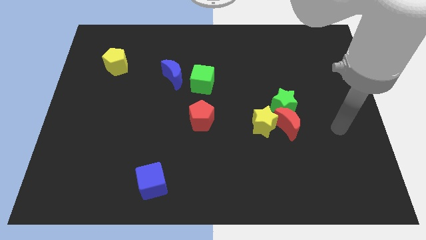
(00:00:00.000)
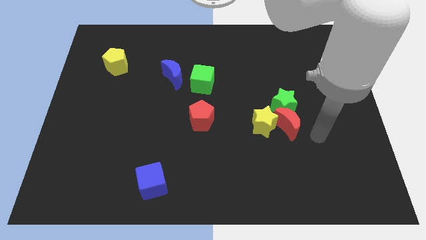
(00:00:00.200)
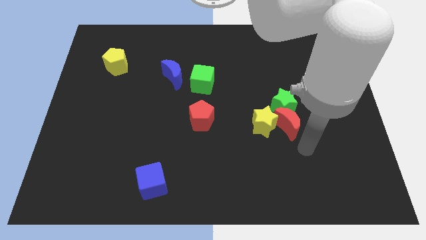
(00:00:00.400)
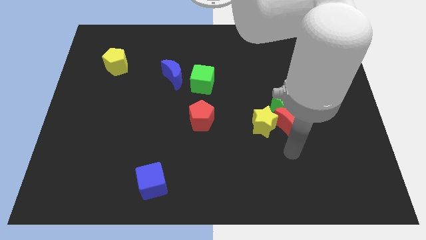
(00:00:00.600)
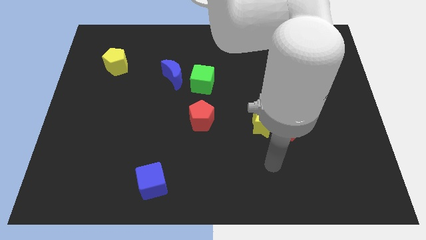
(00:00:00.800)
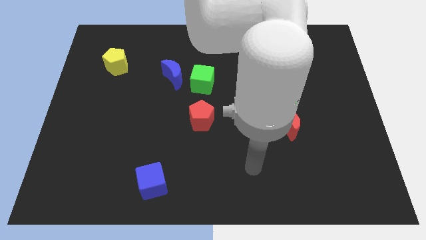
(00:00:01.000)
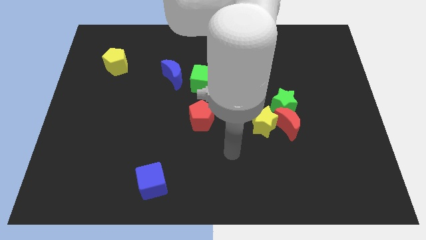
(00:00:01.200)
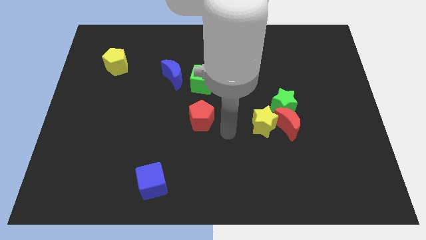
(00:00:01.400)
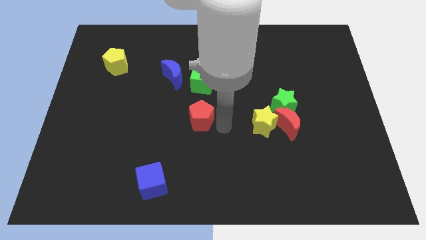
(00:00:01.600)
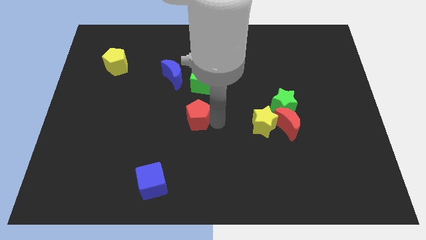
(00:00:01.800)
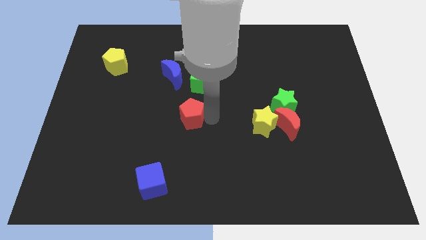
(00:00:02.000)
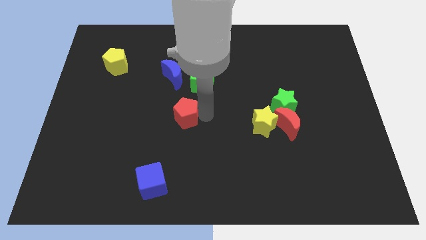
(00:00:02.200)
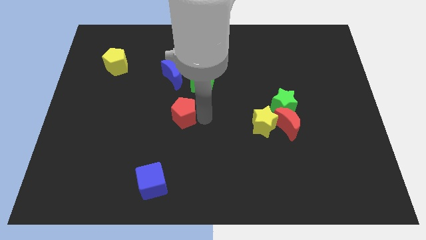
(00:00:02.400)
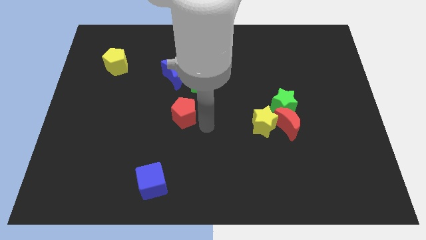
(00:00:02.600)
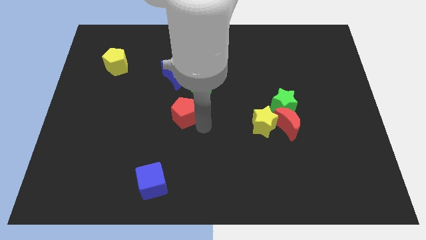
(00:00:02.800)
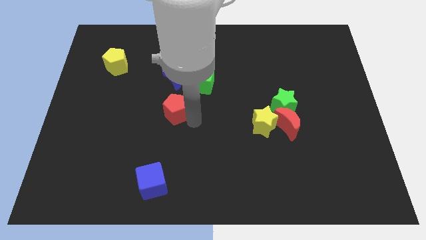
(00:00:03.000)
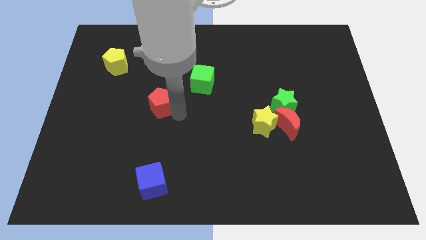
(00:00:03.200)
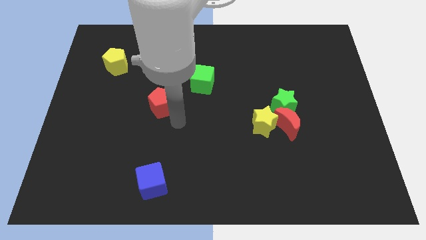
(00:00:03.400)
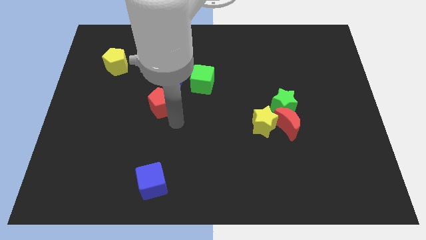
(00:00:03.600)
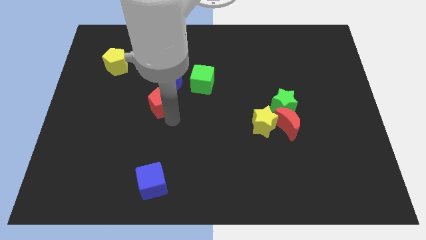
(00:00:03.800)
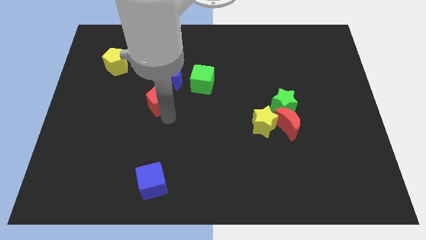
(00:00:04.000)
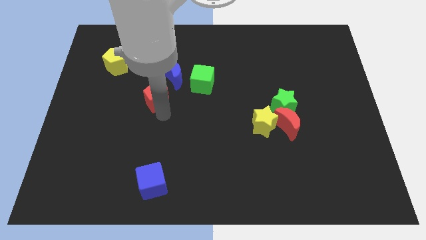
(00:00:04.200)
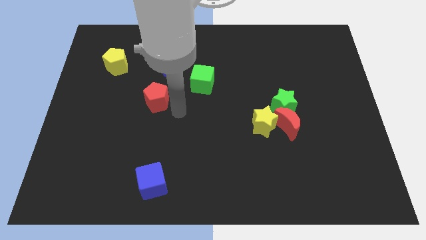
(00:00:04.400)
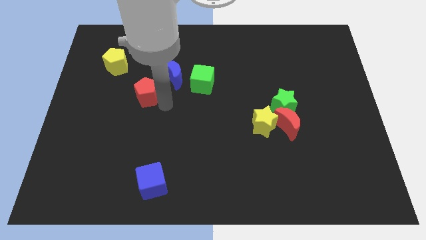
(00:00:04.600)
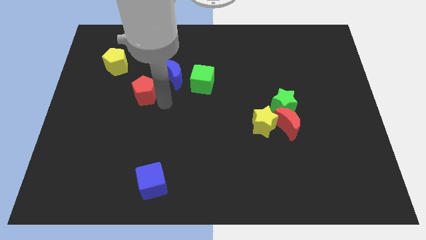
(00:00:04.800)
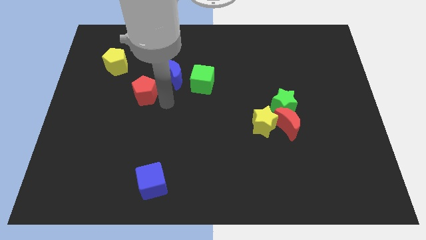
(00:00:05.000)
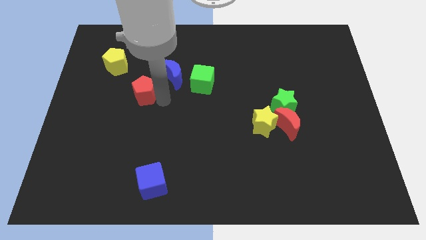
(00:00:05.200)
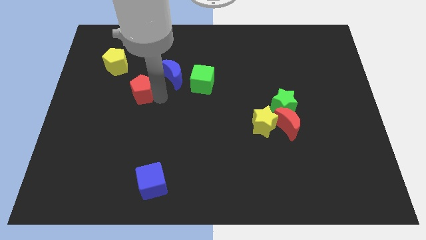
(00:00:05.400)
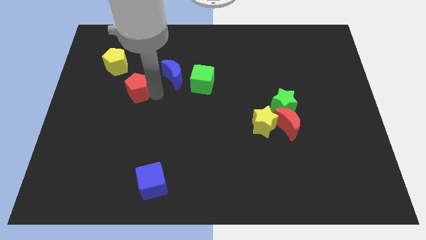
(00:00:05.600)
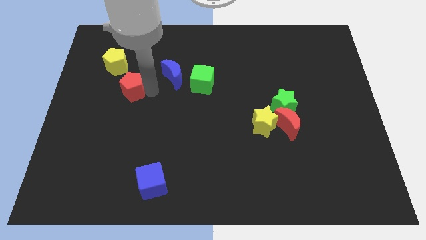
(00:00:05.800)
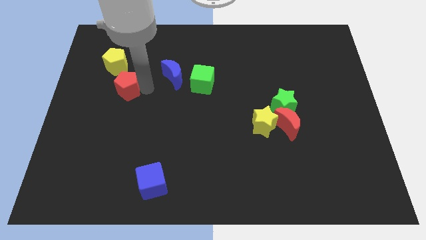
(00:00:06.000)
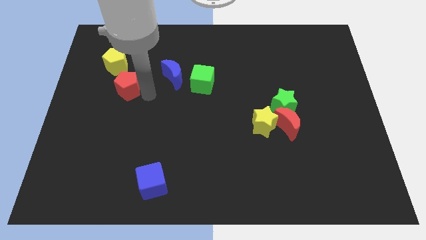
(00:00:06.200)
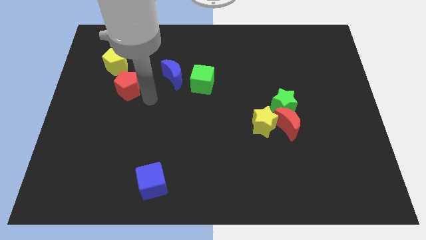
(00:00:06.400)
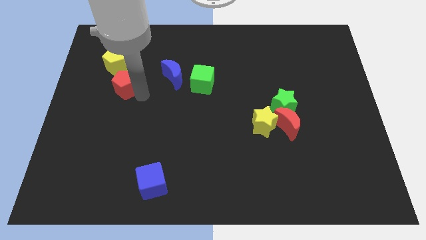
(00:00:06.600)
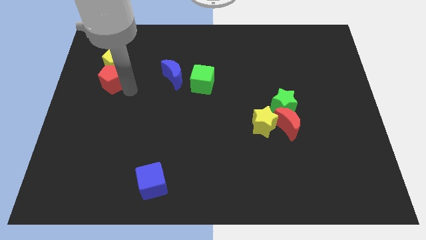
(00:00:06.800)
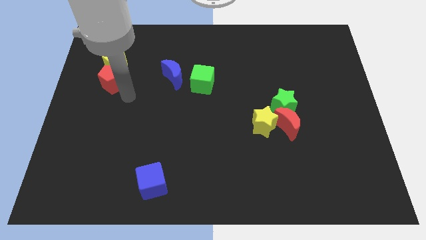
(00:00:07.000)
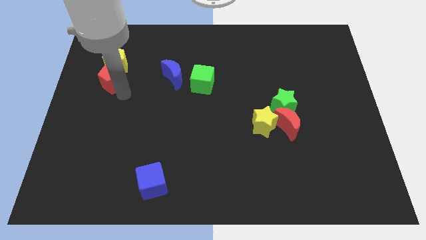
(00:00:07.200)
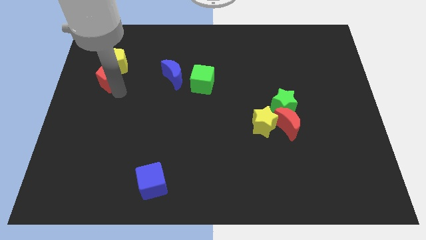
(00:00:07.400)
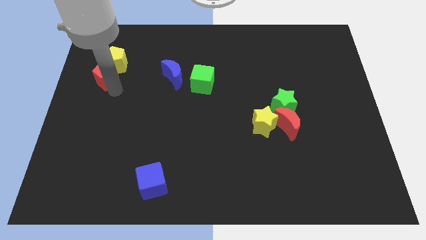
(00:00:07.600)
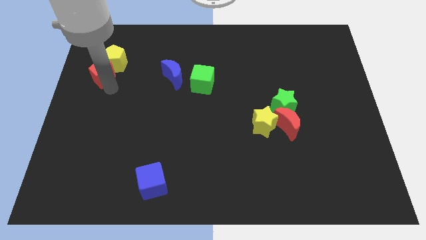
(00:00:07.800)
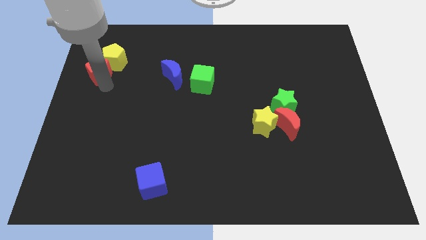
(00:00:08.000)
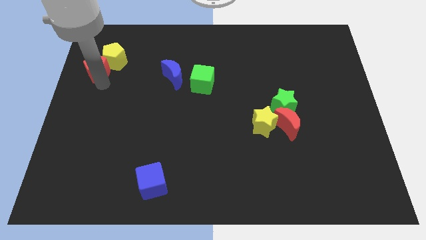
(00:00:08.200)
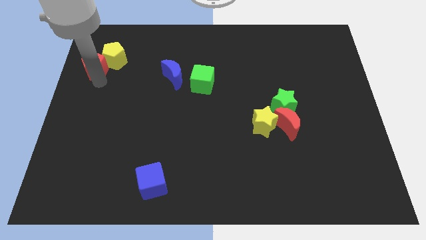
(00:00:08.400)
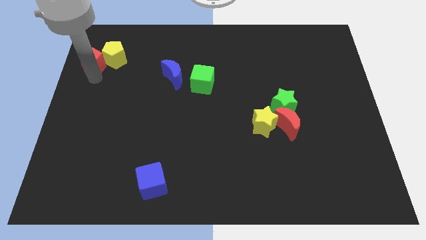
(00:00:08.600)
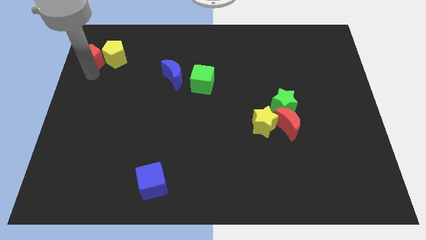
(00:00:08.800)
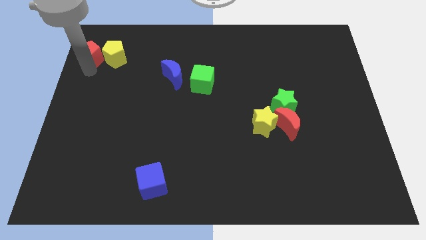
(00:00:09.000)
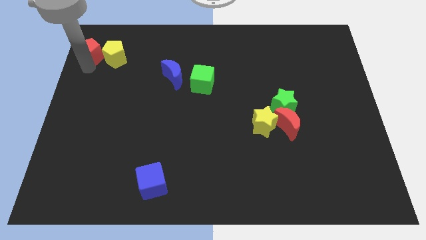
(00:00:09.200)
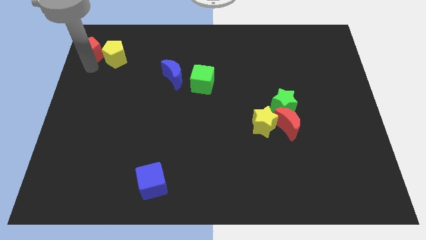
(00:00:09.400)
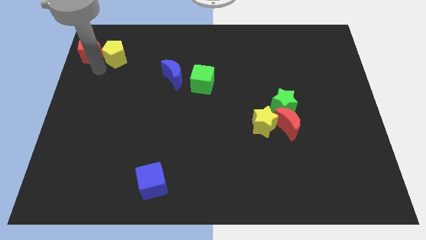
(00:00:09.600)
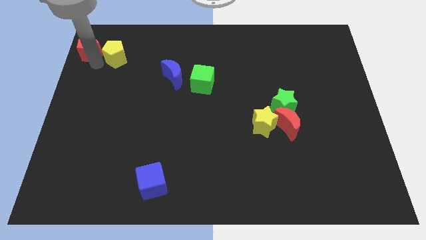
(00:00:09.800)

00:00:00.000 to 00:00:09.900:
put the red pentagon to the top left of the board

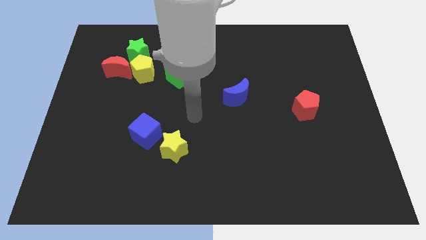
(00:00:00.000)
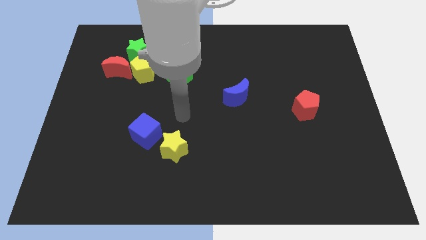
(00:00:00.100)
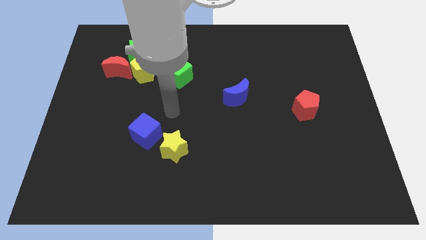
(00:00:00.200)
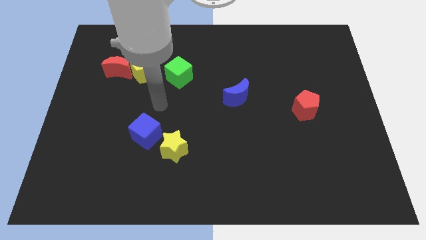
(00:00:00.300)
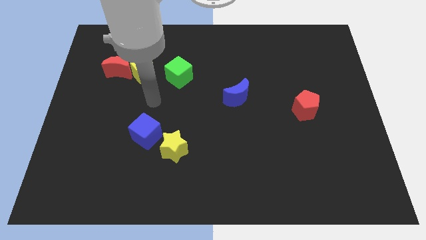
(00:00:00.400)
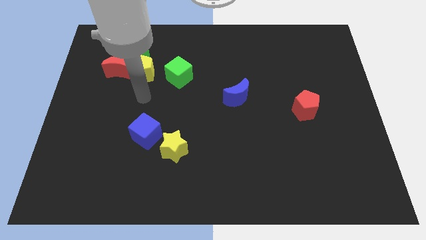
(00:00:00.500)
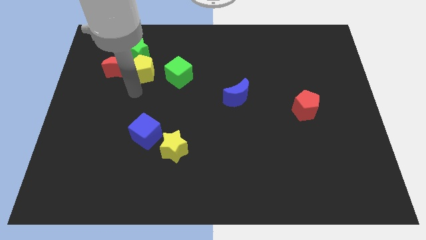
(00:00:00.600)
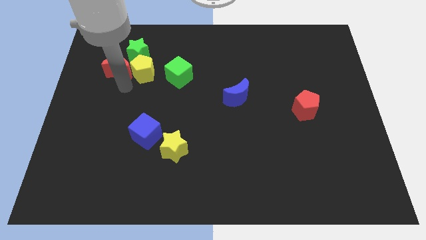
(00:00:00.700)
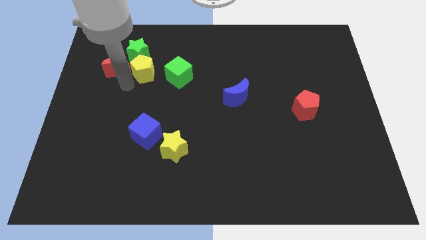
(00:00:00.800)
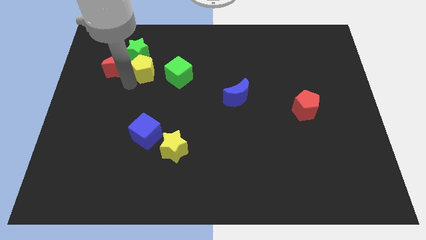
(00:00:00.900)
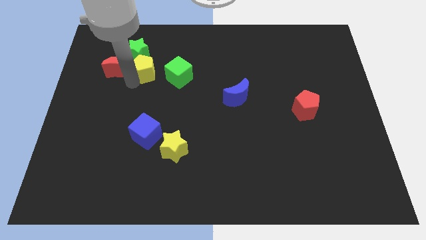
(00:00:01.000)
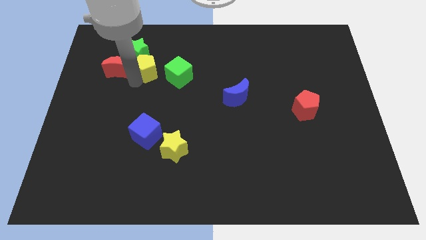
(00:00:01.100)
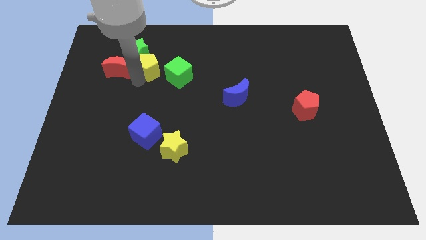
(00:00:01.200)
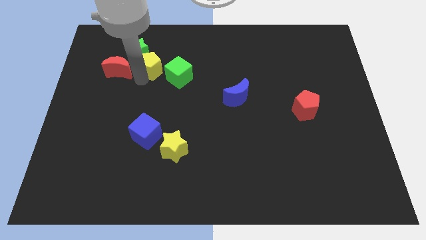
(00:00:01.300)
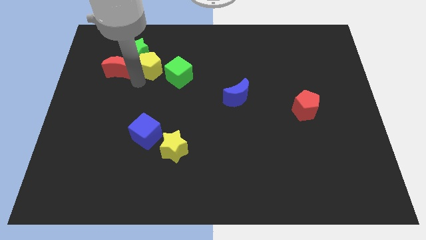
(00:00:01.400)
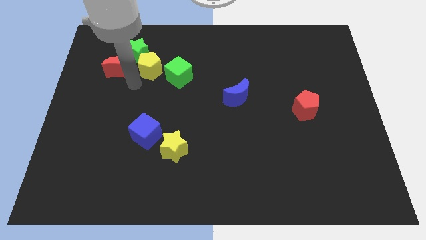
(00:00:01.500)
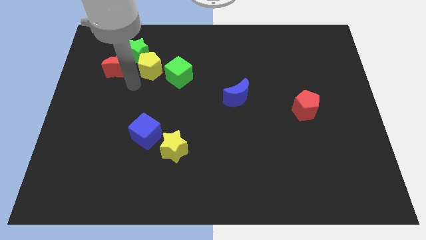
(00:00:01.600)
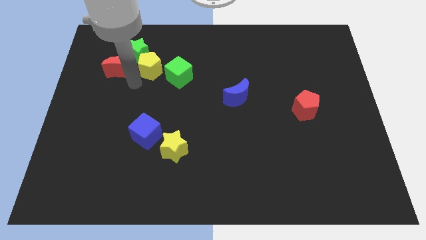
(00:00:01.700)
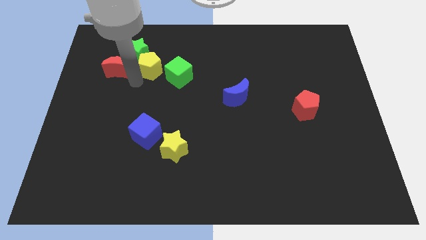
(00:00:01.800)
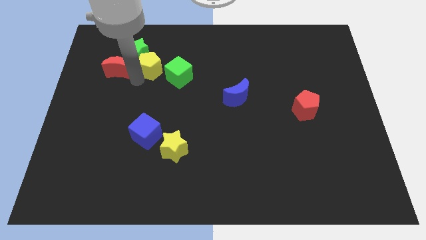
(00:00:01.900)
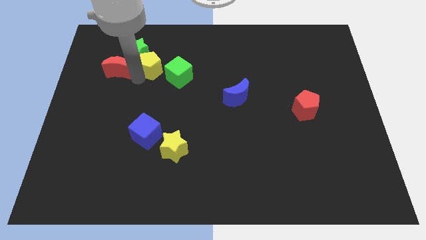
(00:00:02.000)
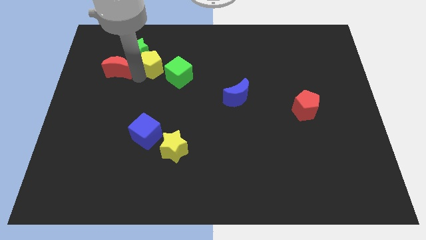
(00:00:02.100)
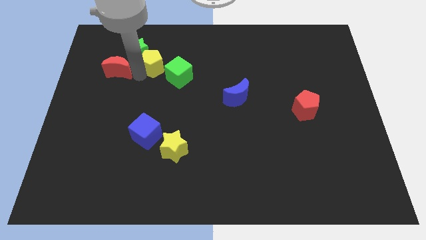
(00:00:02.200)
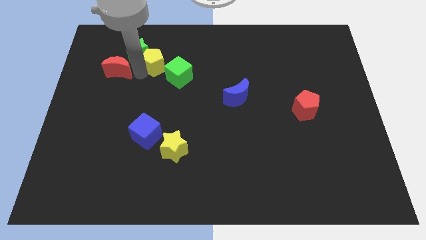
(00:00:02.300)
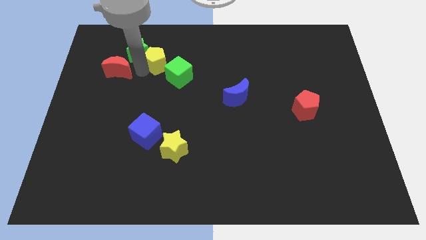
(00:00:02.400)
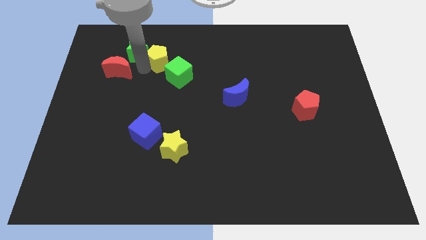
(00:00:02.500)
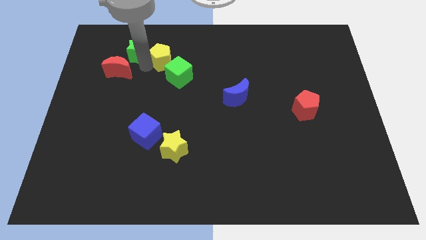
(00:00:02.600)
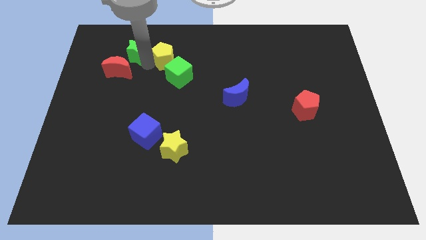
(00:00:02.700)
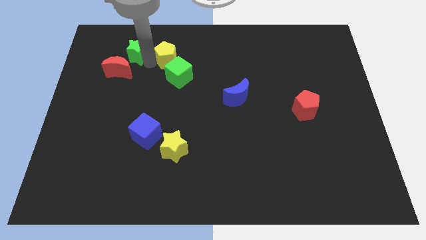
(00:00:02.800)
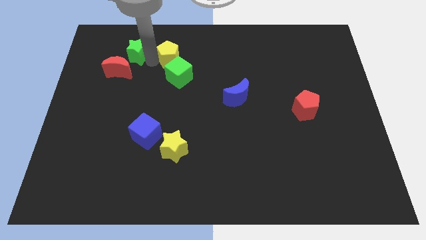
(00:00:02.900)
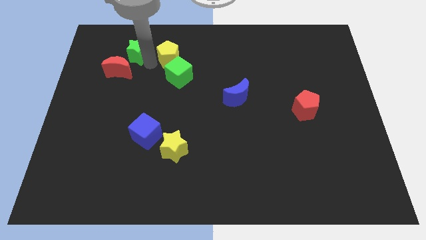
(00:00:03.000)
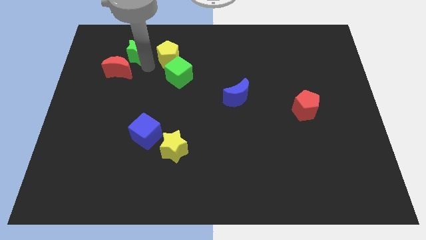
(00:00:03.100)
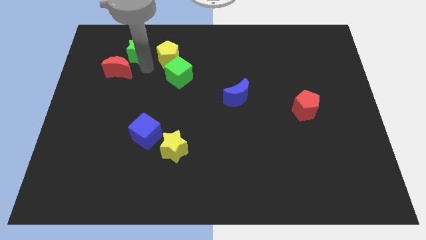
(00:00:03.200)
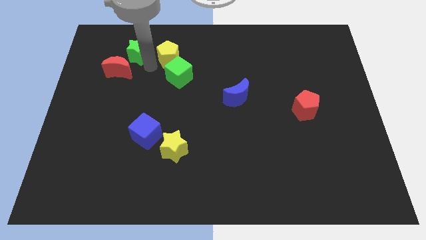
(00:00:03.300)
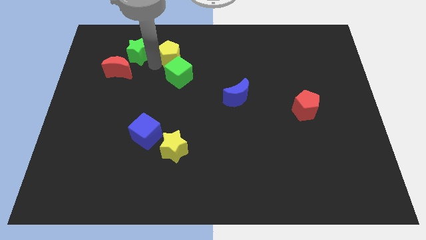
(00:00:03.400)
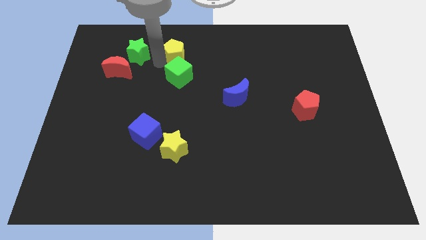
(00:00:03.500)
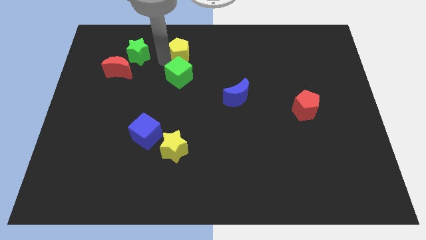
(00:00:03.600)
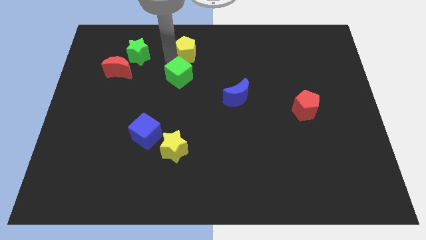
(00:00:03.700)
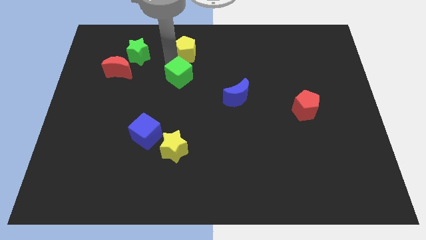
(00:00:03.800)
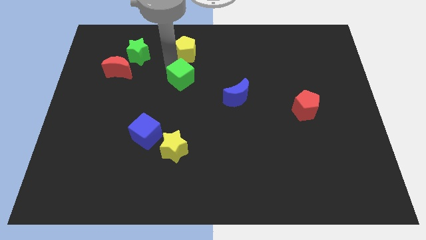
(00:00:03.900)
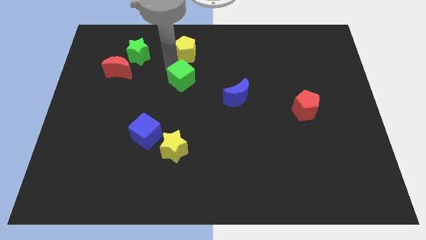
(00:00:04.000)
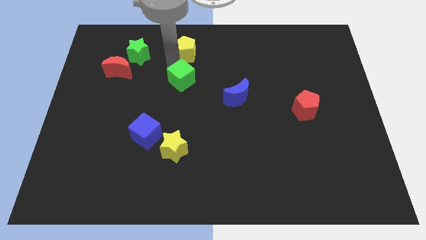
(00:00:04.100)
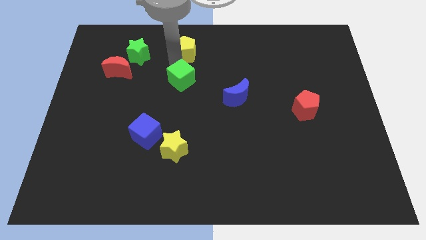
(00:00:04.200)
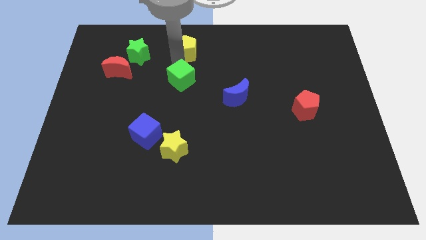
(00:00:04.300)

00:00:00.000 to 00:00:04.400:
move the yellow pentagon to the top
